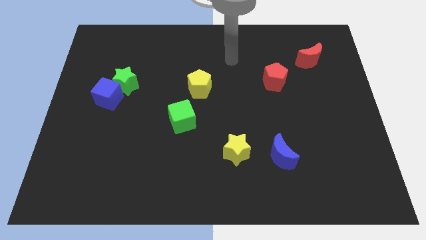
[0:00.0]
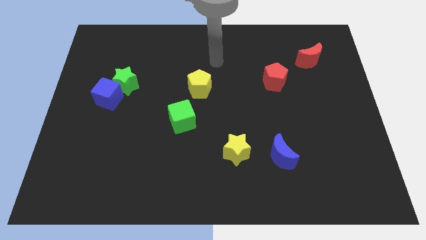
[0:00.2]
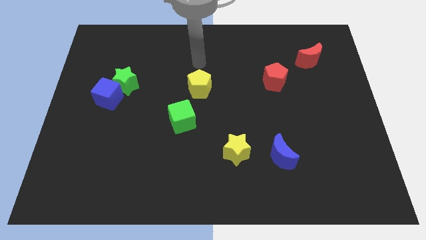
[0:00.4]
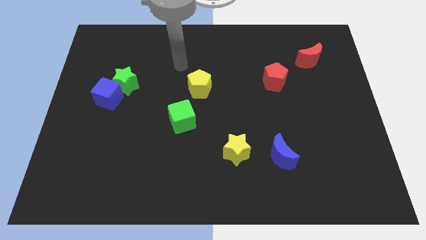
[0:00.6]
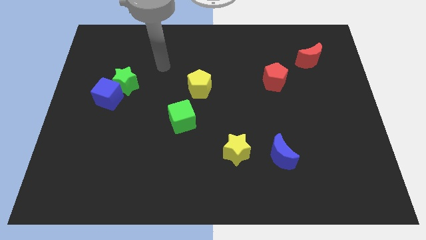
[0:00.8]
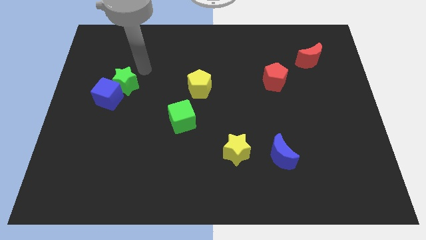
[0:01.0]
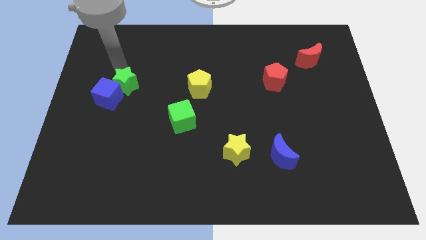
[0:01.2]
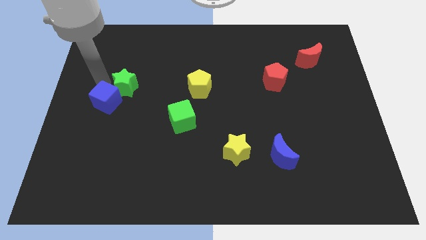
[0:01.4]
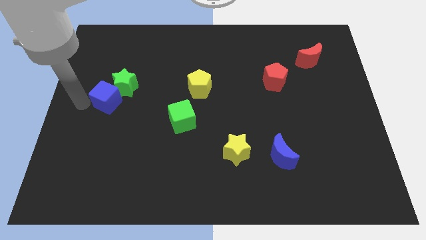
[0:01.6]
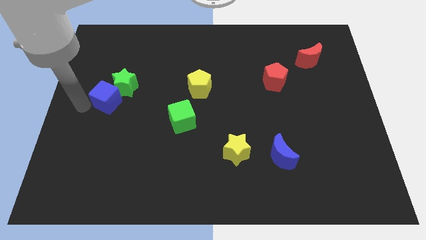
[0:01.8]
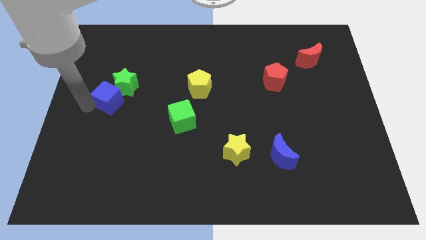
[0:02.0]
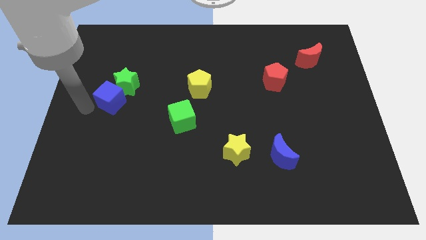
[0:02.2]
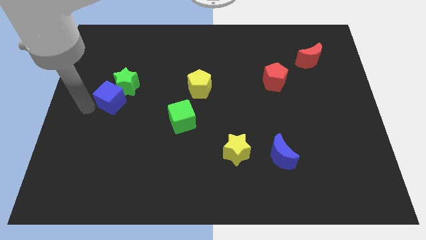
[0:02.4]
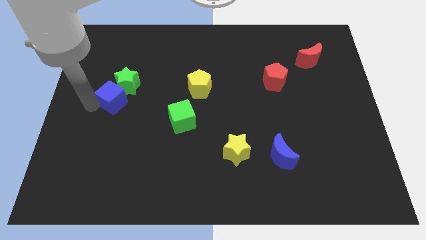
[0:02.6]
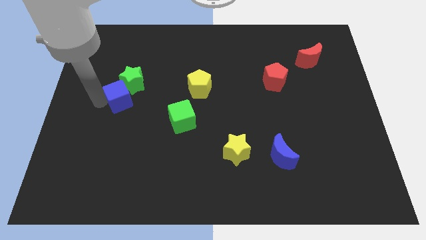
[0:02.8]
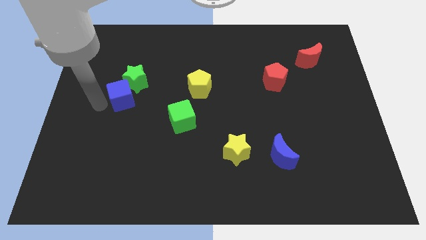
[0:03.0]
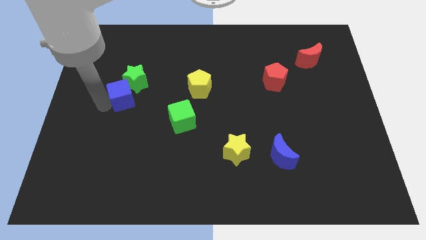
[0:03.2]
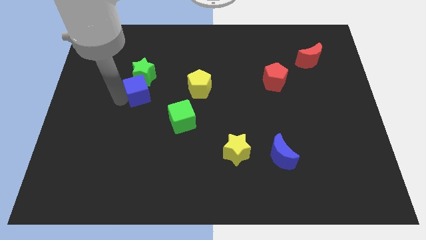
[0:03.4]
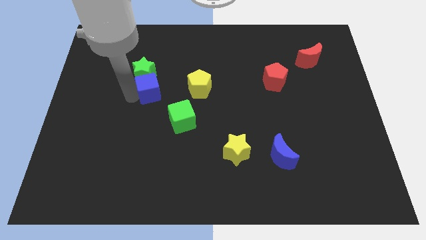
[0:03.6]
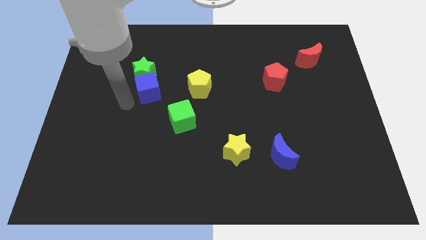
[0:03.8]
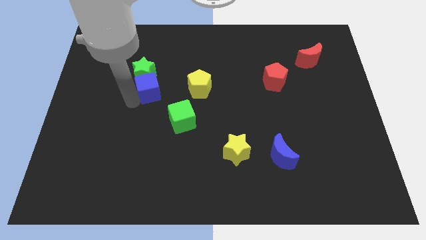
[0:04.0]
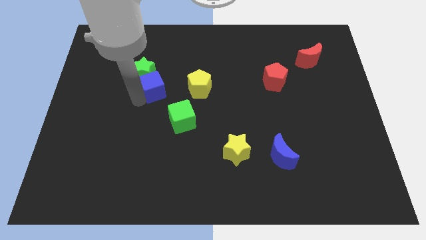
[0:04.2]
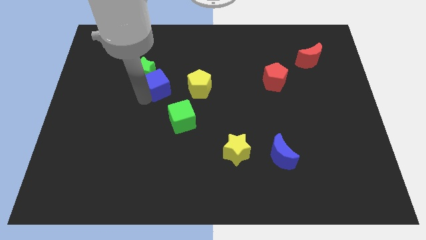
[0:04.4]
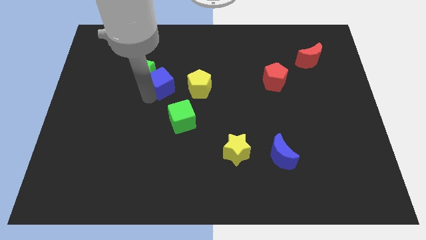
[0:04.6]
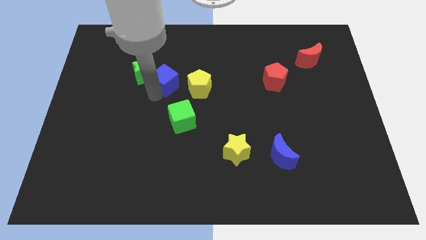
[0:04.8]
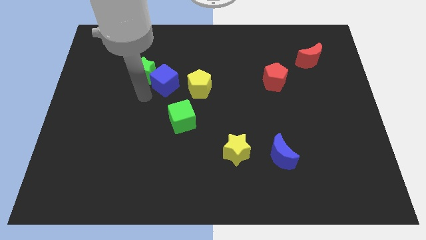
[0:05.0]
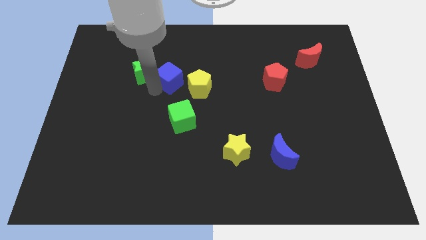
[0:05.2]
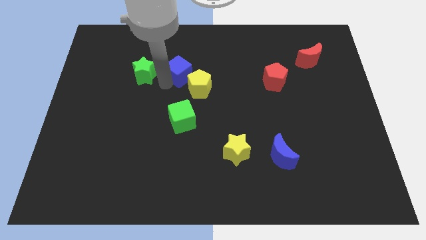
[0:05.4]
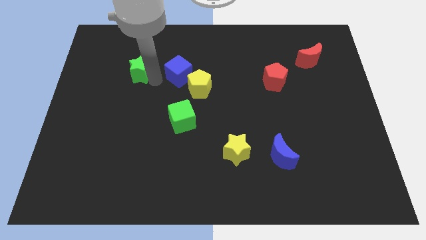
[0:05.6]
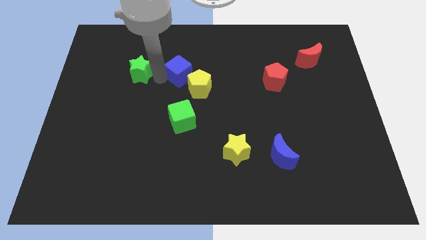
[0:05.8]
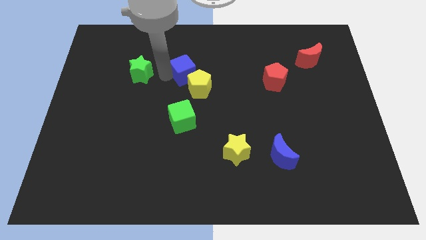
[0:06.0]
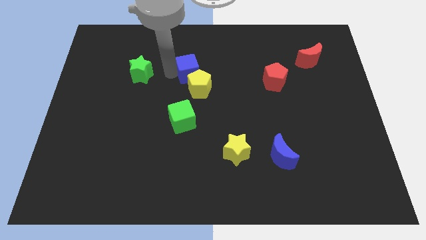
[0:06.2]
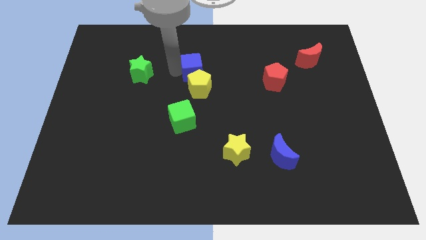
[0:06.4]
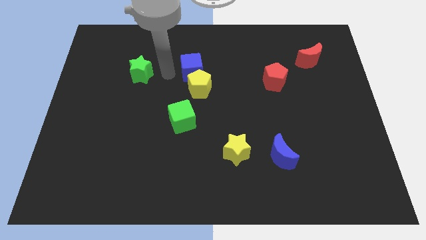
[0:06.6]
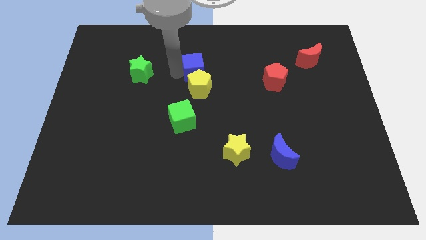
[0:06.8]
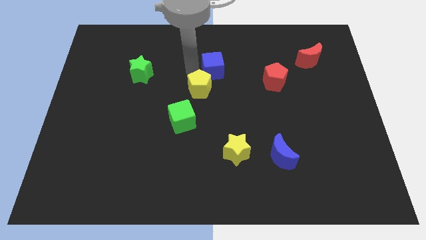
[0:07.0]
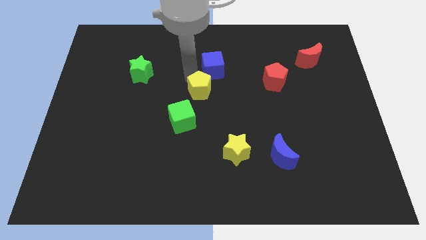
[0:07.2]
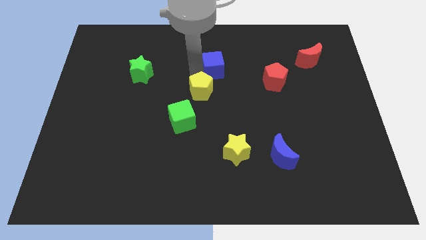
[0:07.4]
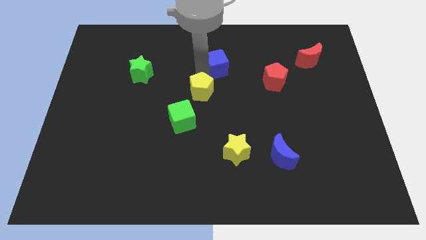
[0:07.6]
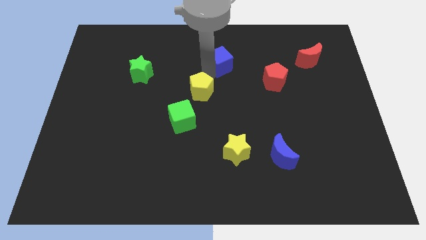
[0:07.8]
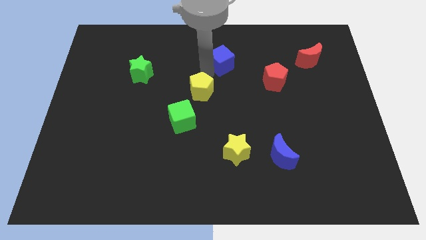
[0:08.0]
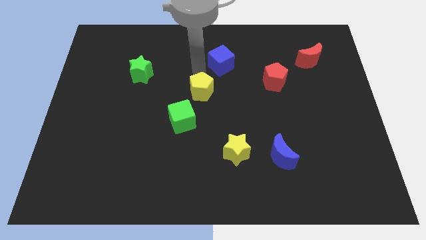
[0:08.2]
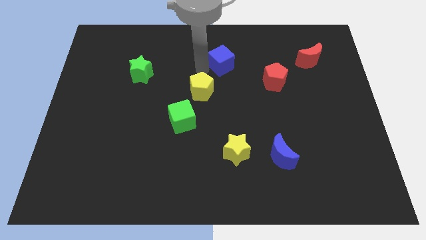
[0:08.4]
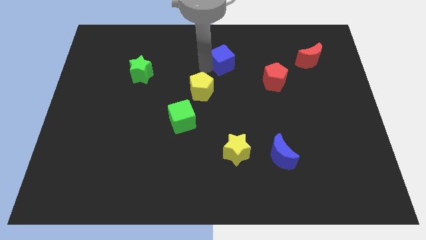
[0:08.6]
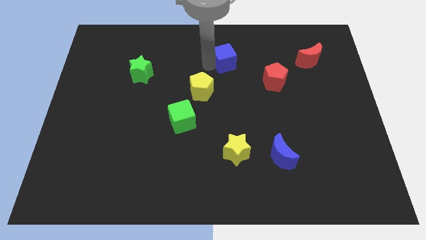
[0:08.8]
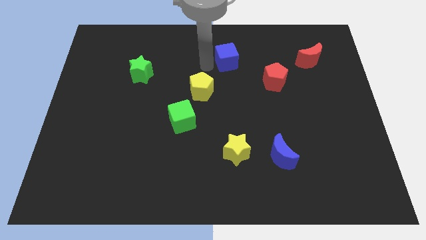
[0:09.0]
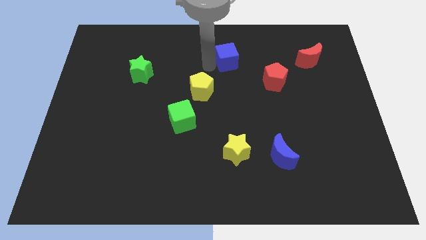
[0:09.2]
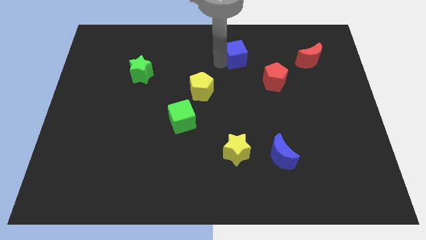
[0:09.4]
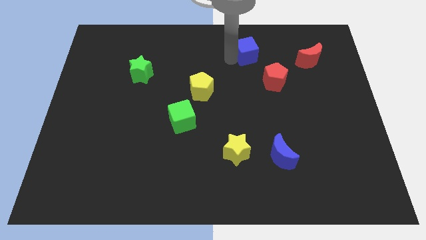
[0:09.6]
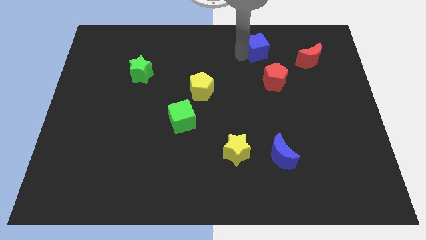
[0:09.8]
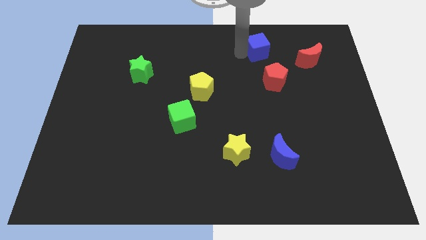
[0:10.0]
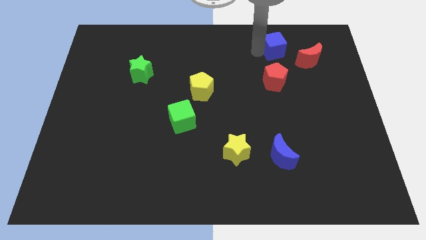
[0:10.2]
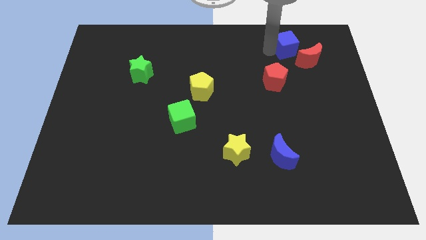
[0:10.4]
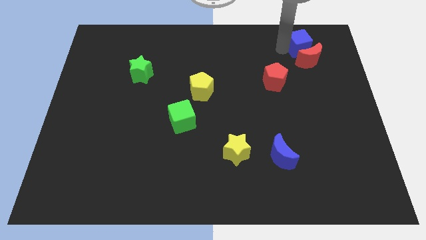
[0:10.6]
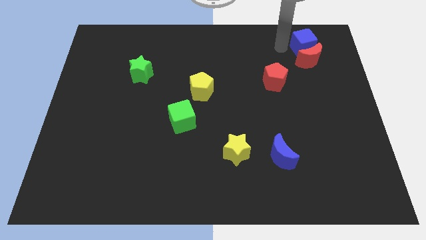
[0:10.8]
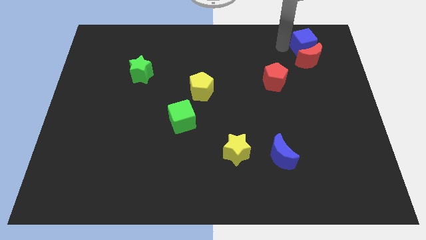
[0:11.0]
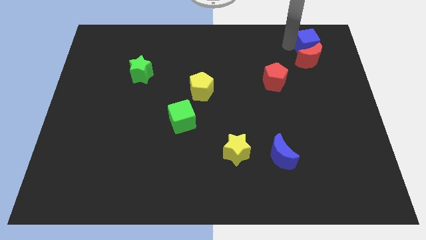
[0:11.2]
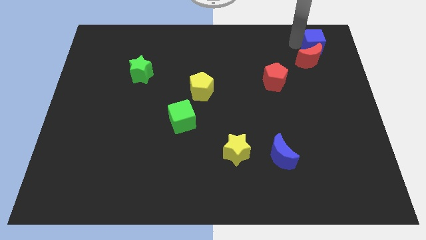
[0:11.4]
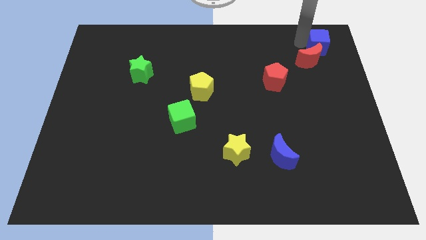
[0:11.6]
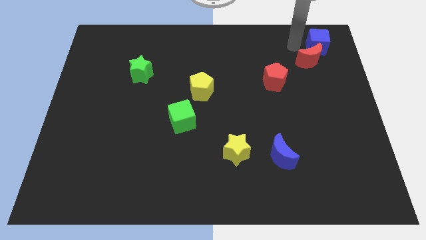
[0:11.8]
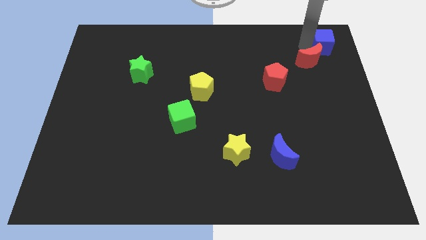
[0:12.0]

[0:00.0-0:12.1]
push the blue cube to the upper right corner
